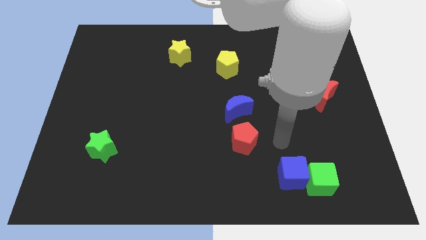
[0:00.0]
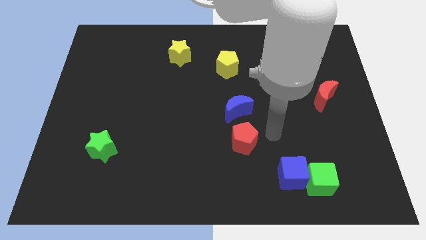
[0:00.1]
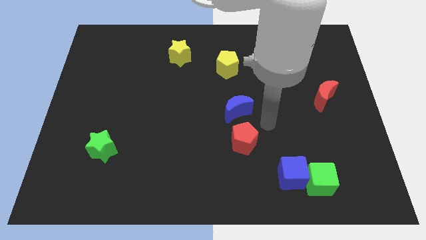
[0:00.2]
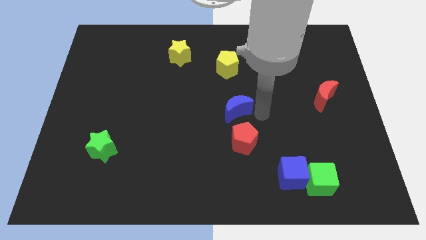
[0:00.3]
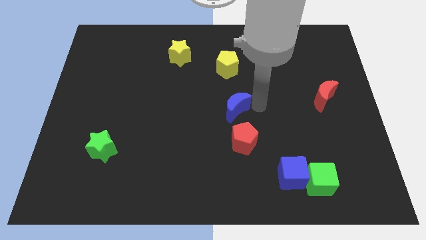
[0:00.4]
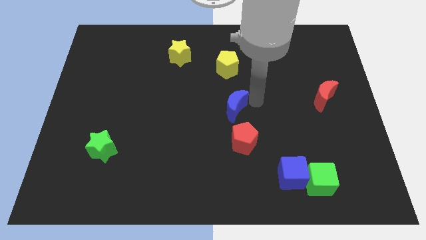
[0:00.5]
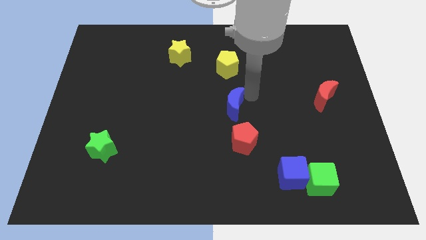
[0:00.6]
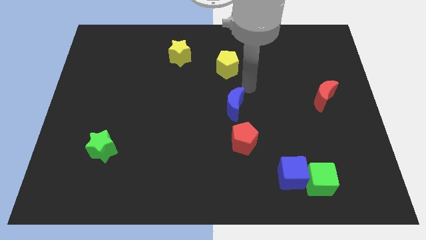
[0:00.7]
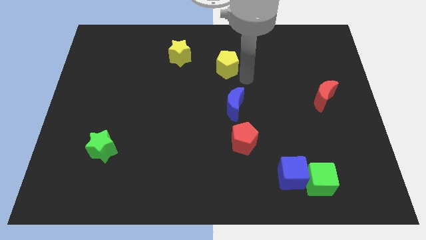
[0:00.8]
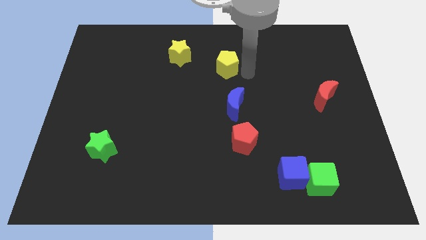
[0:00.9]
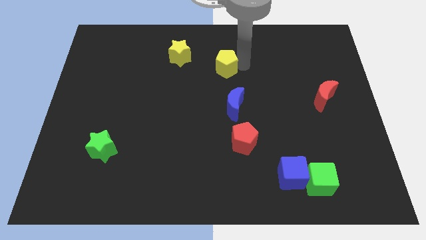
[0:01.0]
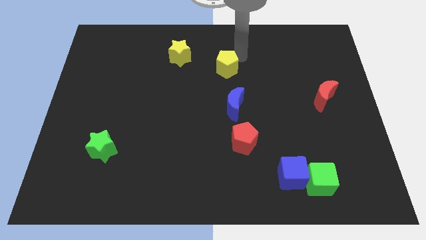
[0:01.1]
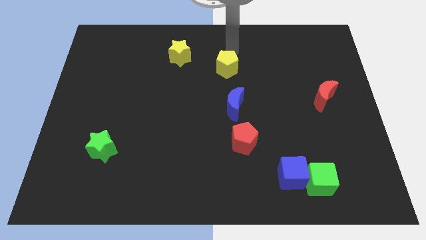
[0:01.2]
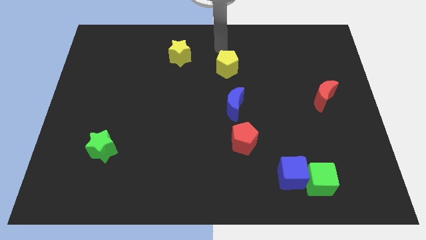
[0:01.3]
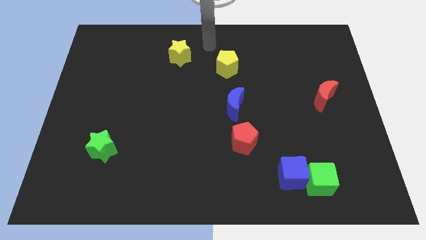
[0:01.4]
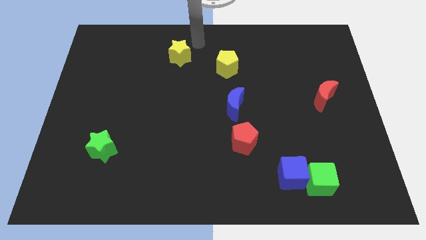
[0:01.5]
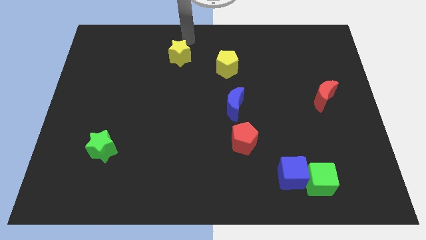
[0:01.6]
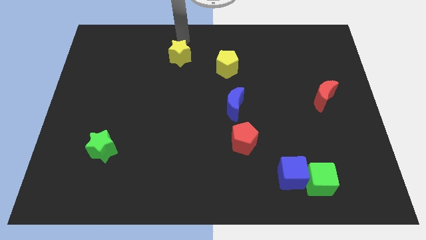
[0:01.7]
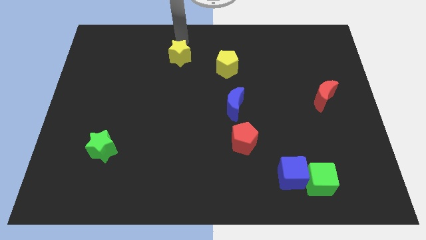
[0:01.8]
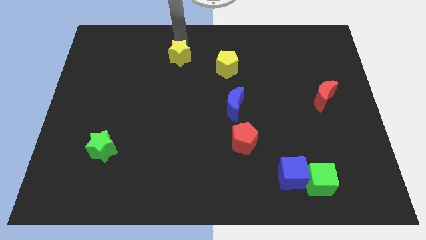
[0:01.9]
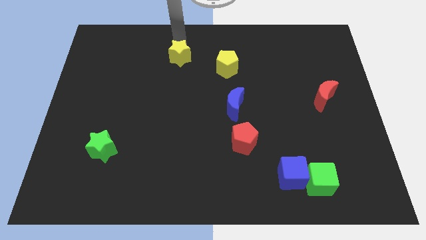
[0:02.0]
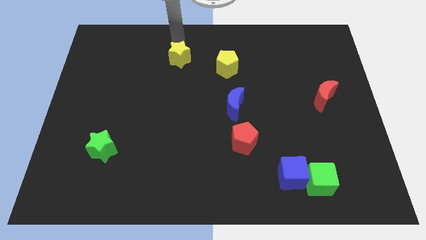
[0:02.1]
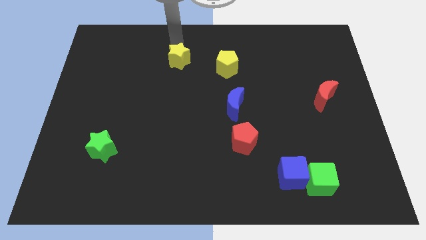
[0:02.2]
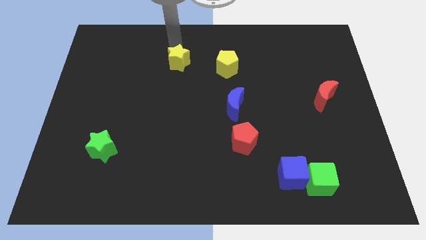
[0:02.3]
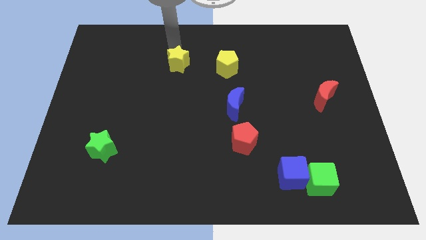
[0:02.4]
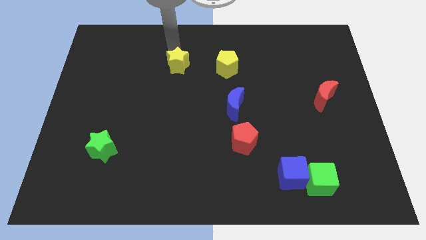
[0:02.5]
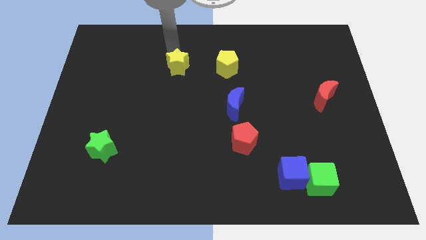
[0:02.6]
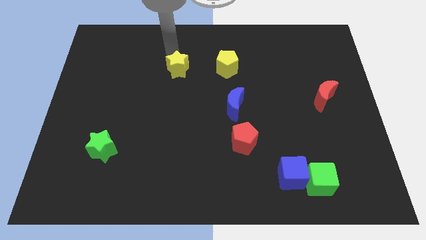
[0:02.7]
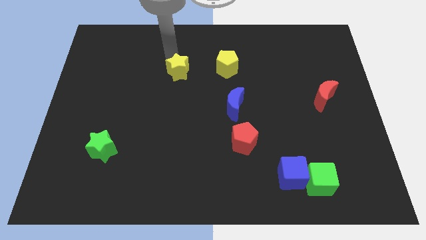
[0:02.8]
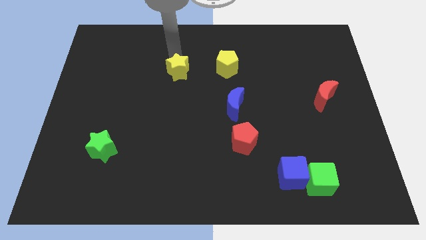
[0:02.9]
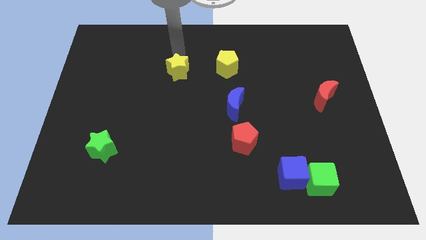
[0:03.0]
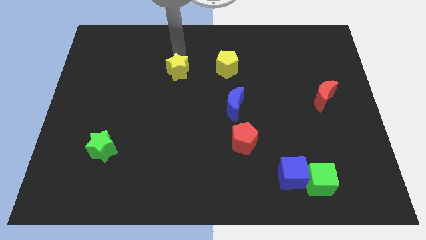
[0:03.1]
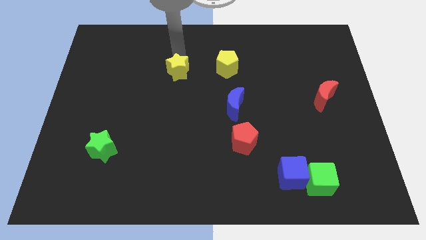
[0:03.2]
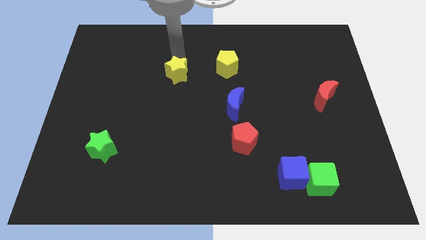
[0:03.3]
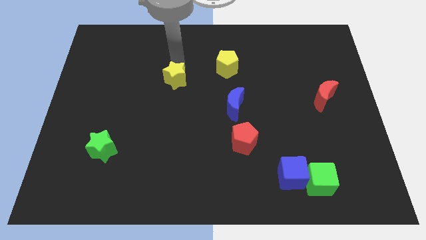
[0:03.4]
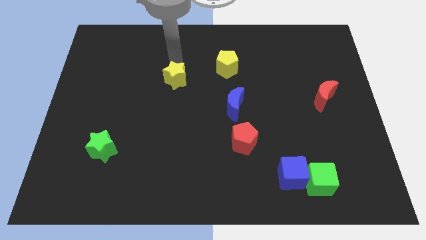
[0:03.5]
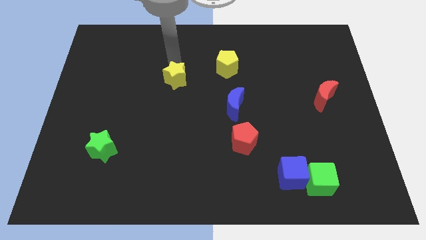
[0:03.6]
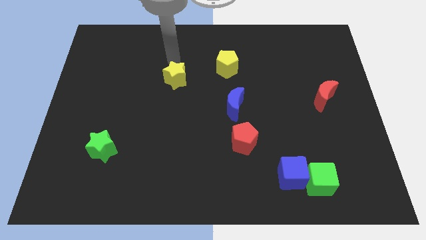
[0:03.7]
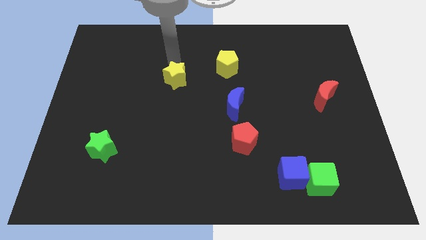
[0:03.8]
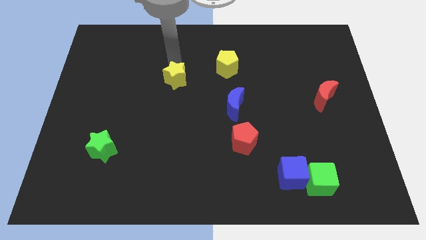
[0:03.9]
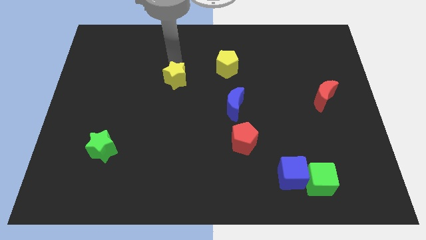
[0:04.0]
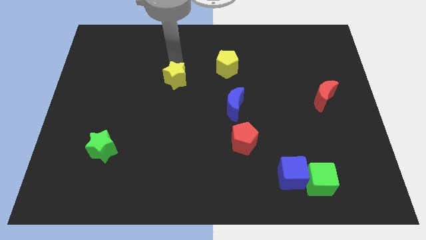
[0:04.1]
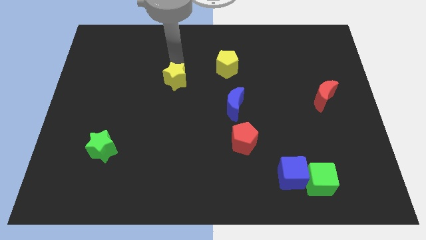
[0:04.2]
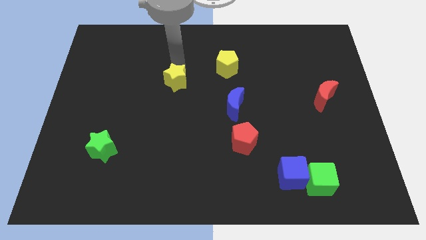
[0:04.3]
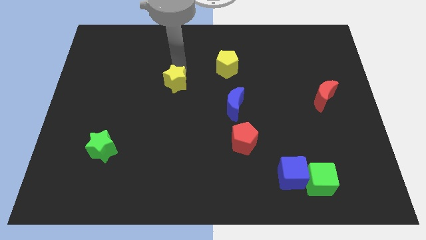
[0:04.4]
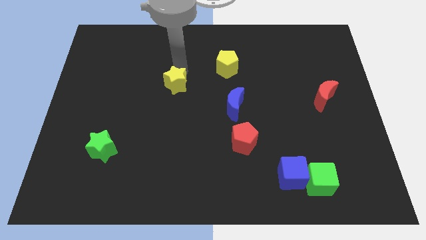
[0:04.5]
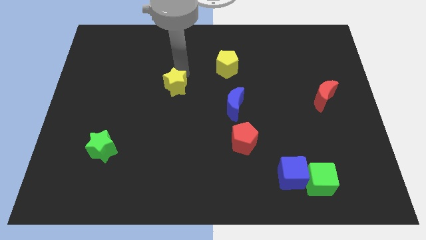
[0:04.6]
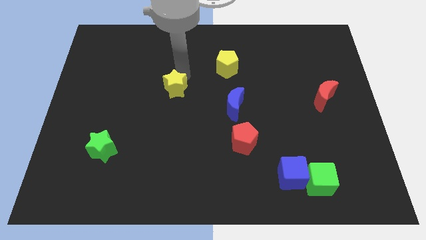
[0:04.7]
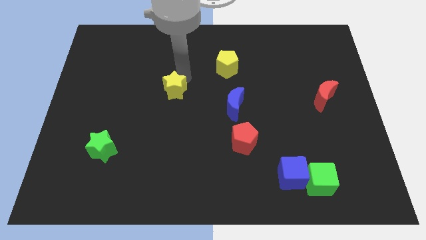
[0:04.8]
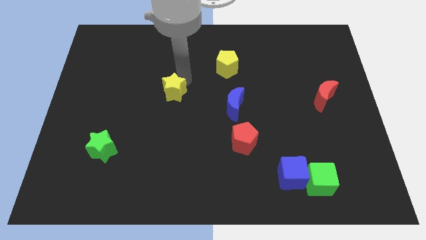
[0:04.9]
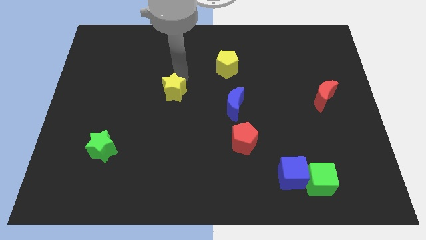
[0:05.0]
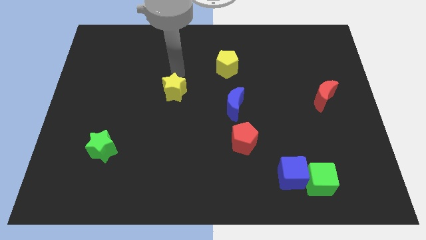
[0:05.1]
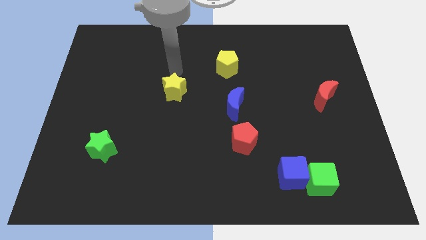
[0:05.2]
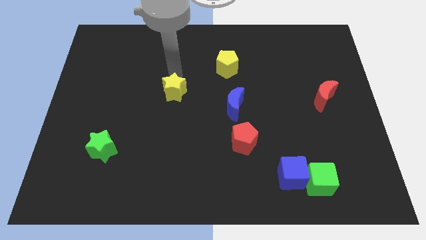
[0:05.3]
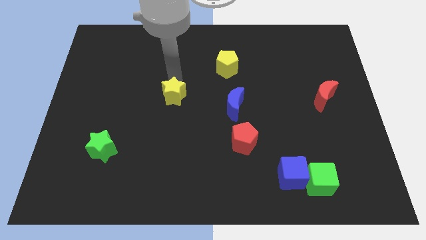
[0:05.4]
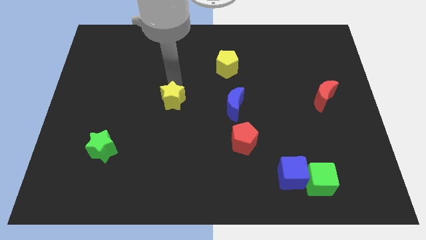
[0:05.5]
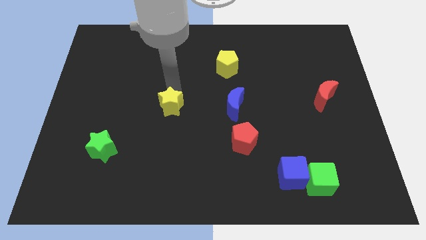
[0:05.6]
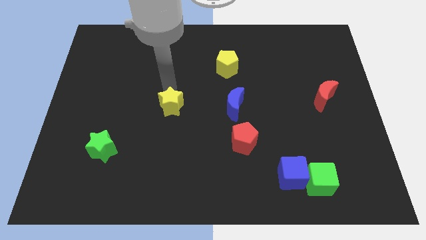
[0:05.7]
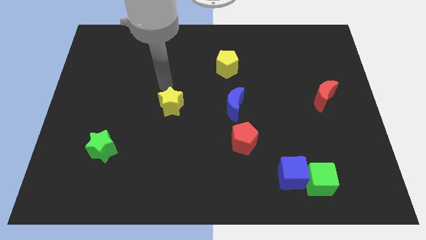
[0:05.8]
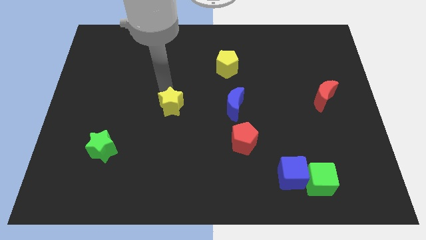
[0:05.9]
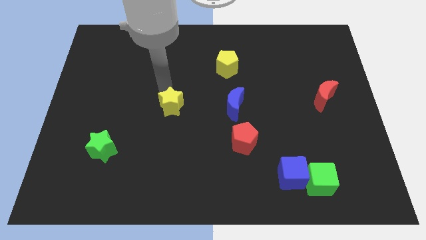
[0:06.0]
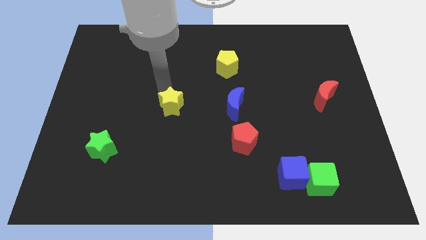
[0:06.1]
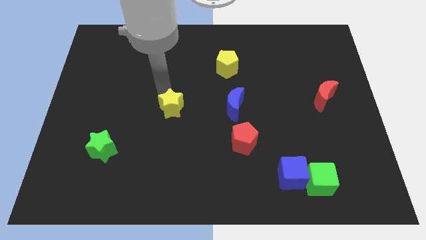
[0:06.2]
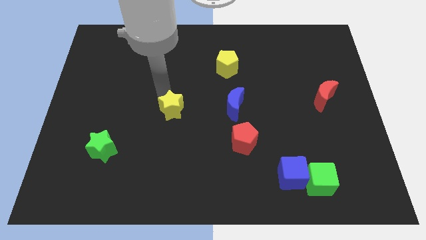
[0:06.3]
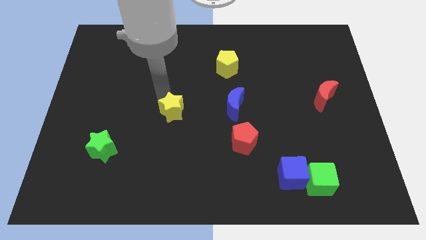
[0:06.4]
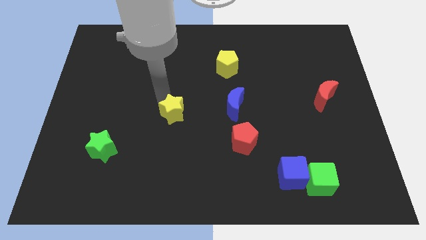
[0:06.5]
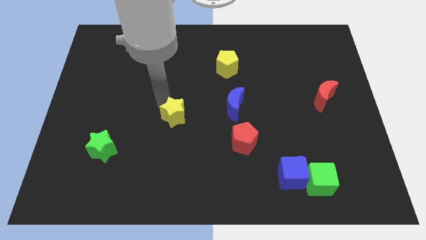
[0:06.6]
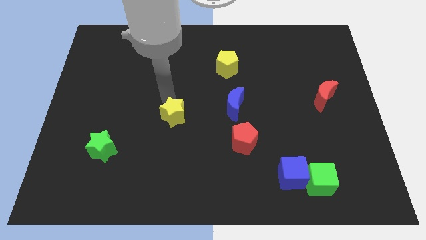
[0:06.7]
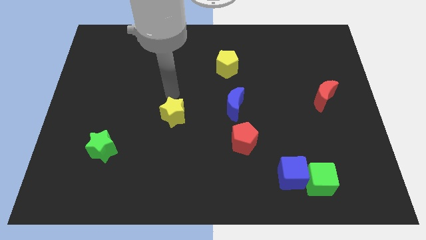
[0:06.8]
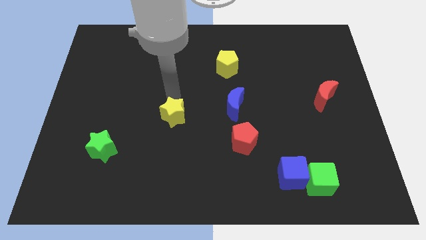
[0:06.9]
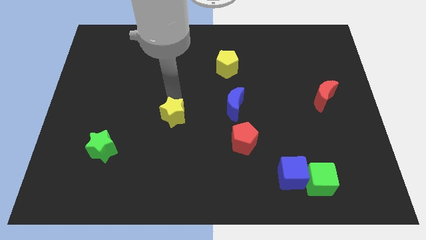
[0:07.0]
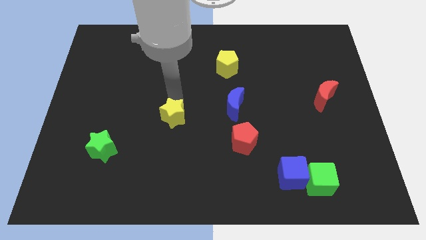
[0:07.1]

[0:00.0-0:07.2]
move the yellow star downwards

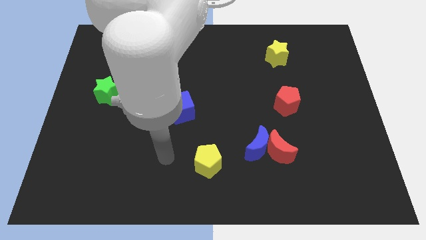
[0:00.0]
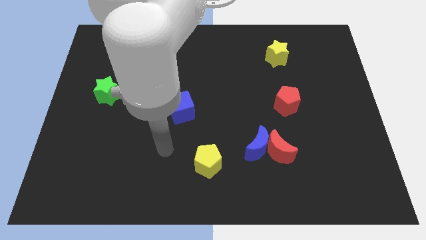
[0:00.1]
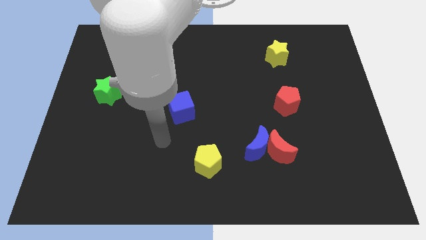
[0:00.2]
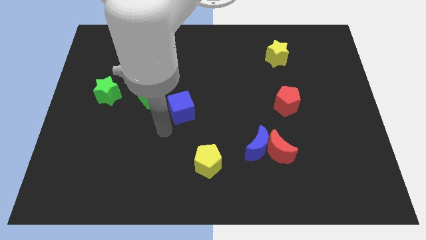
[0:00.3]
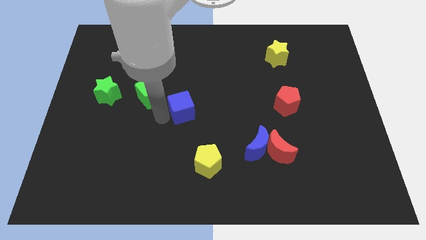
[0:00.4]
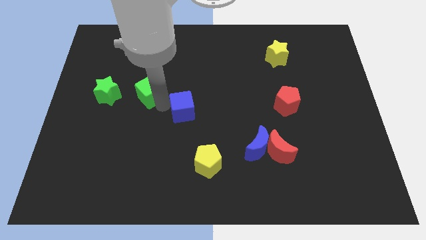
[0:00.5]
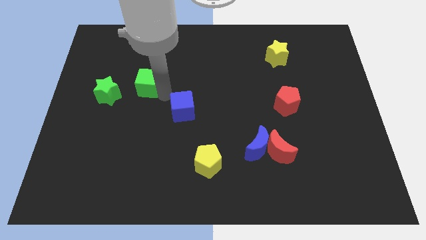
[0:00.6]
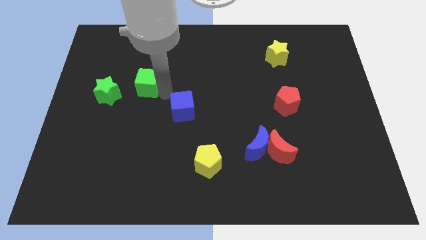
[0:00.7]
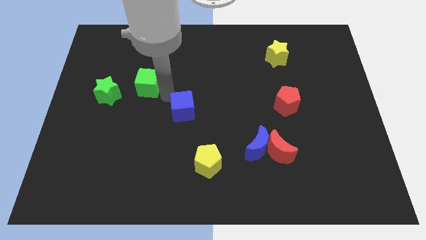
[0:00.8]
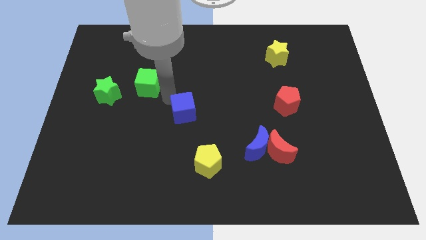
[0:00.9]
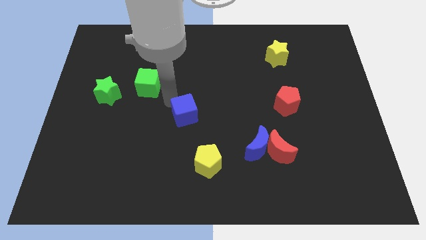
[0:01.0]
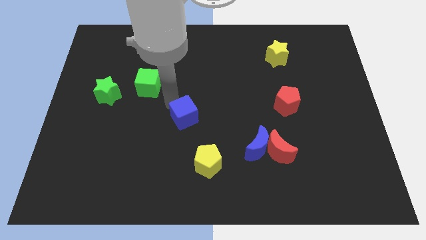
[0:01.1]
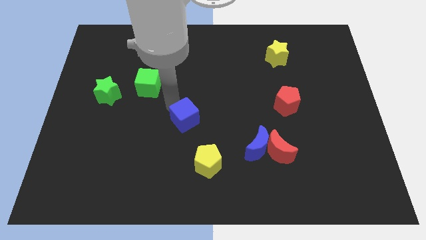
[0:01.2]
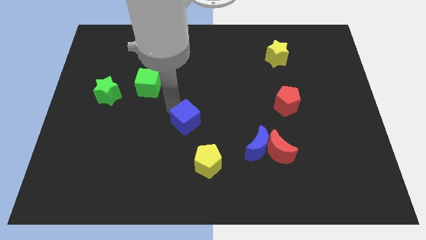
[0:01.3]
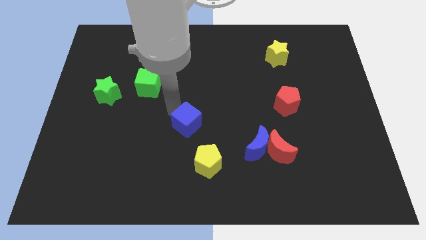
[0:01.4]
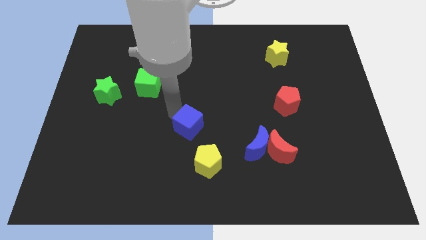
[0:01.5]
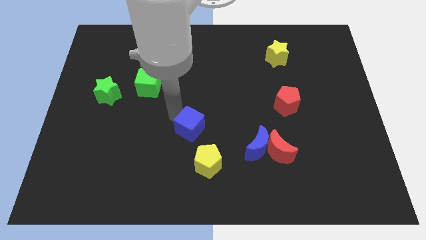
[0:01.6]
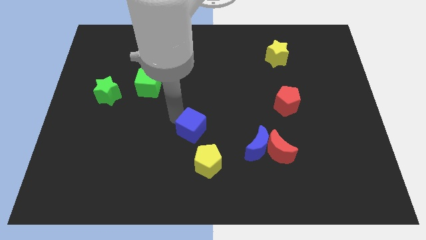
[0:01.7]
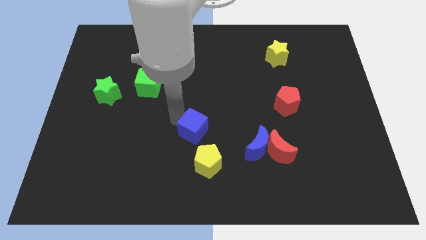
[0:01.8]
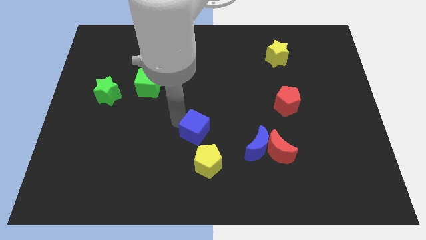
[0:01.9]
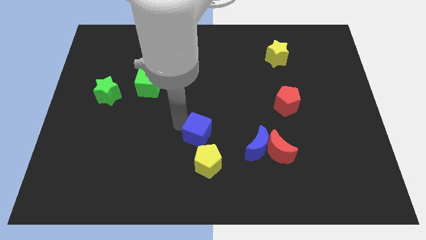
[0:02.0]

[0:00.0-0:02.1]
move the blue cube down and to the right somewhat
